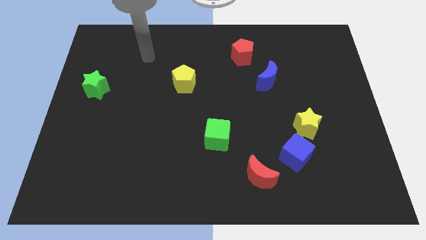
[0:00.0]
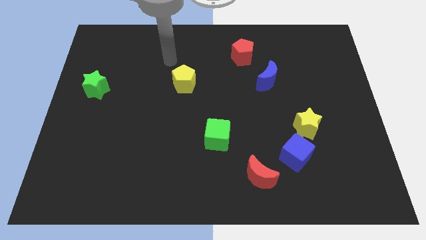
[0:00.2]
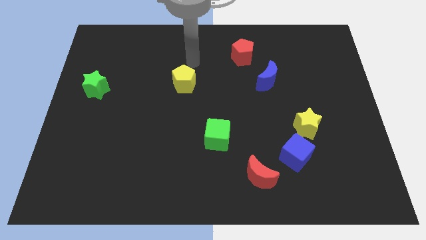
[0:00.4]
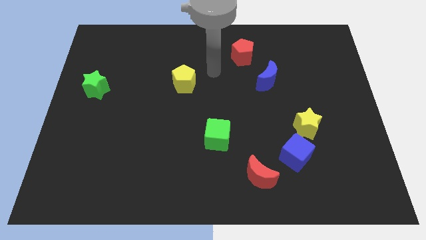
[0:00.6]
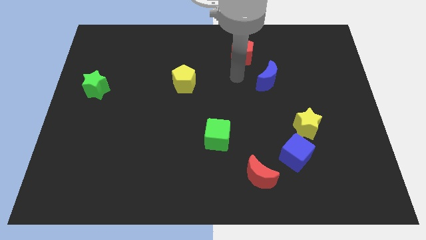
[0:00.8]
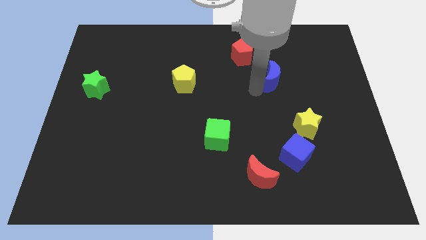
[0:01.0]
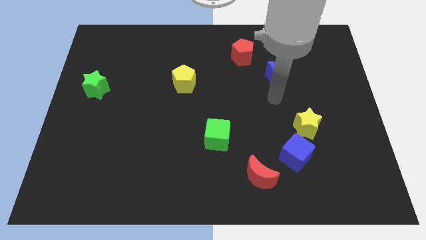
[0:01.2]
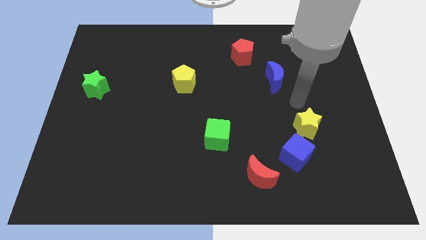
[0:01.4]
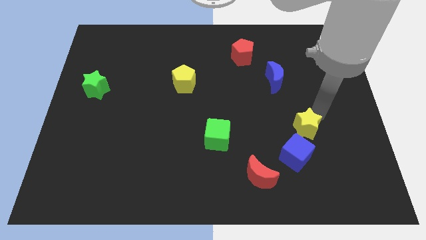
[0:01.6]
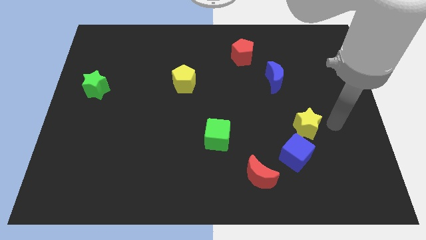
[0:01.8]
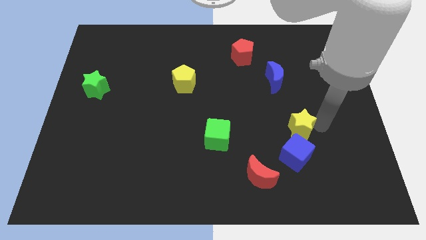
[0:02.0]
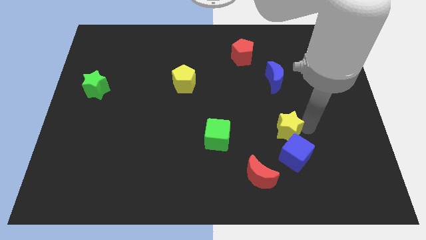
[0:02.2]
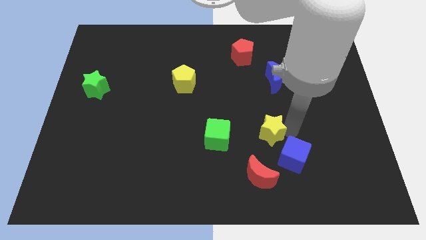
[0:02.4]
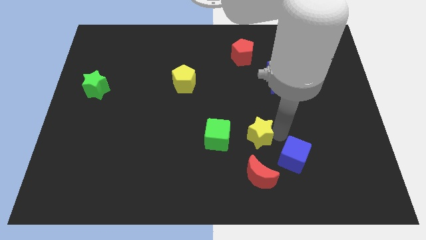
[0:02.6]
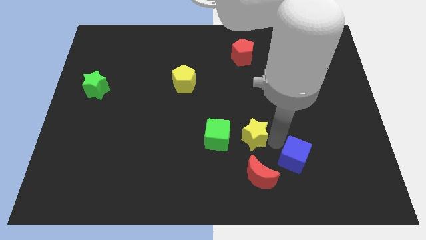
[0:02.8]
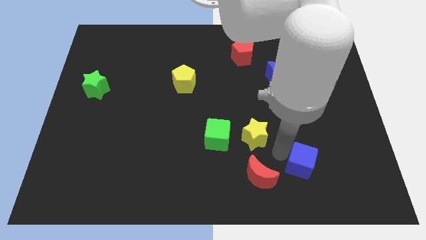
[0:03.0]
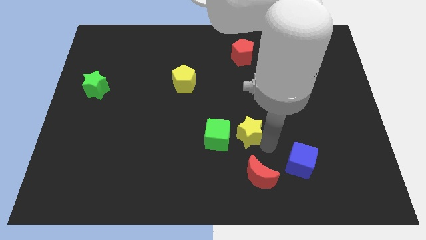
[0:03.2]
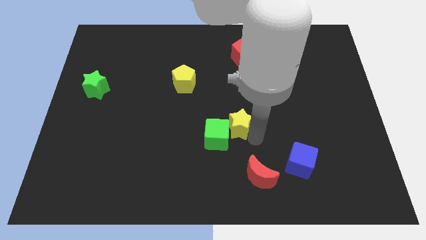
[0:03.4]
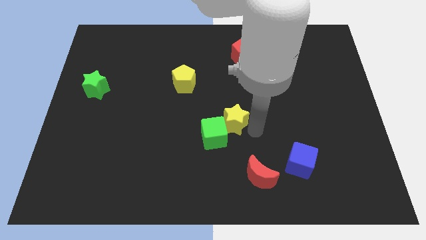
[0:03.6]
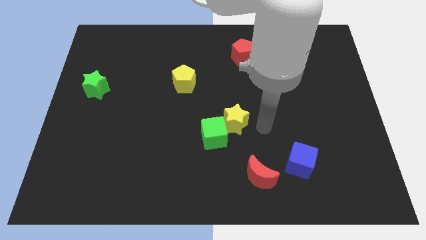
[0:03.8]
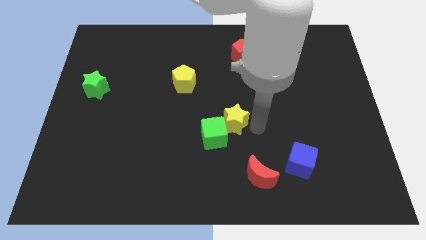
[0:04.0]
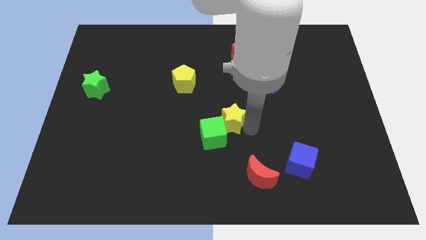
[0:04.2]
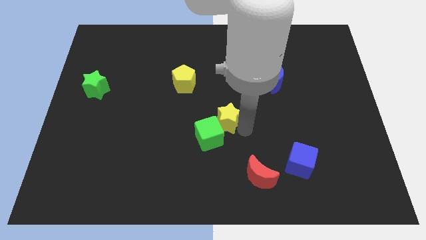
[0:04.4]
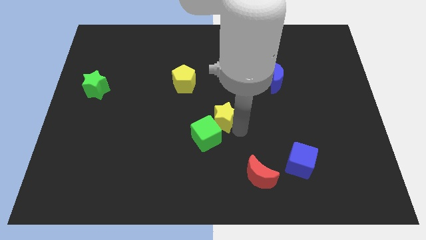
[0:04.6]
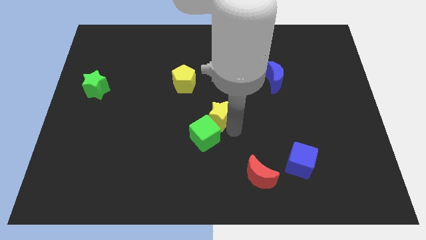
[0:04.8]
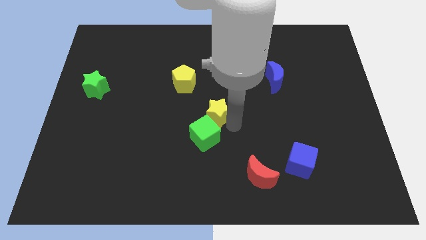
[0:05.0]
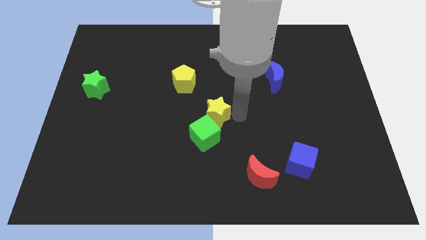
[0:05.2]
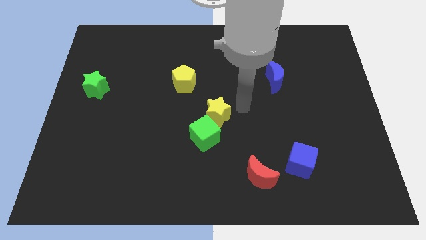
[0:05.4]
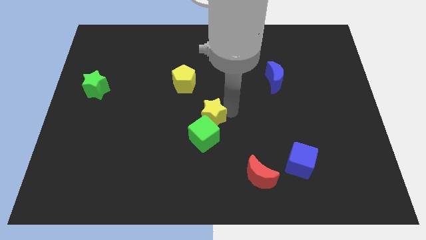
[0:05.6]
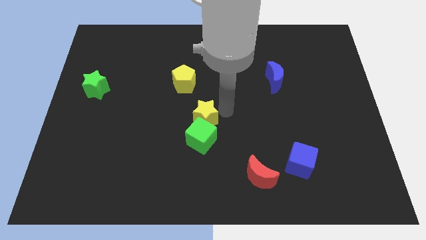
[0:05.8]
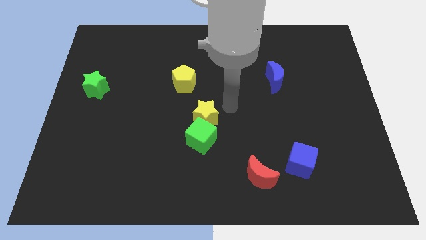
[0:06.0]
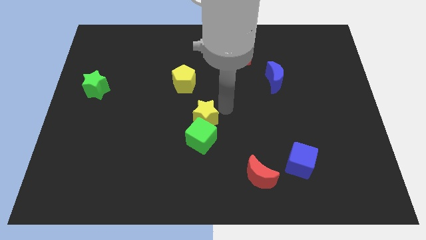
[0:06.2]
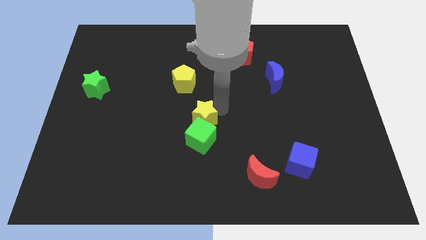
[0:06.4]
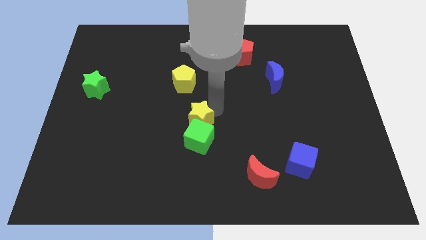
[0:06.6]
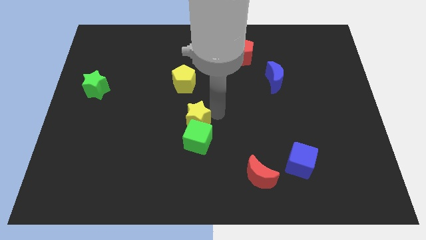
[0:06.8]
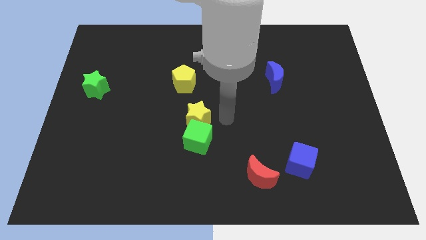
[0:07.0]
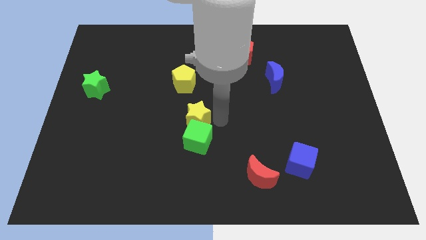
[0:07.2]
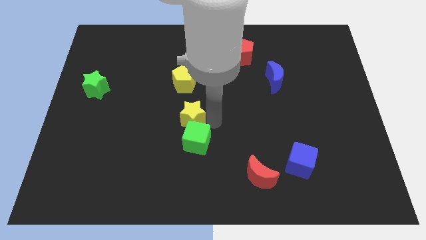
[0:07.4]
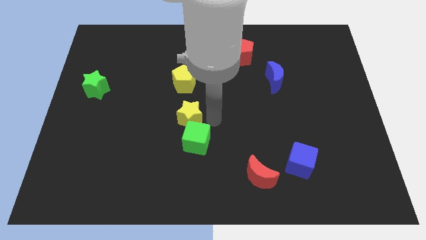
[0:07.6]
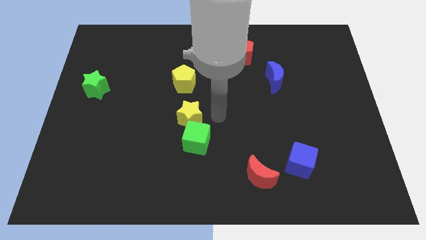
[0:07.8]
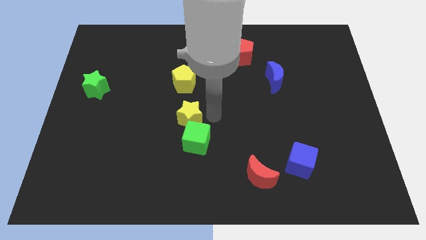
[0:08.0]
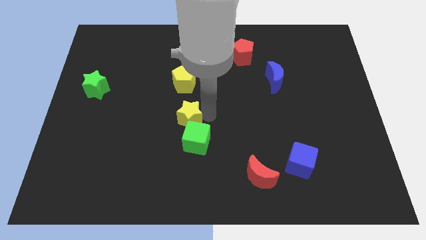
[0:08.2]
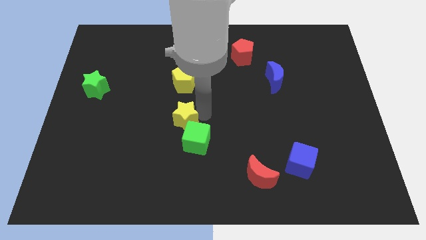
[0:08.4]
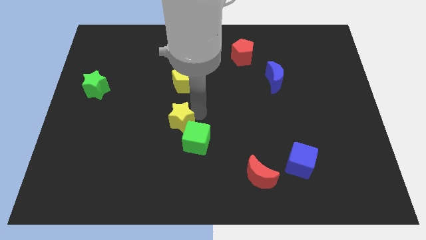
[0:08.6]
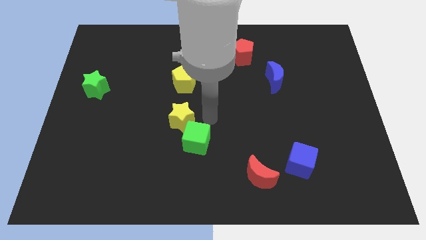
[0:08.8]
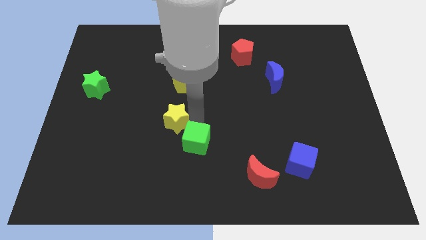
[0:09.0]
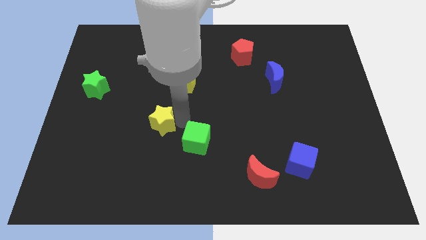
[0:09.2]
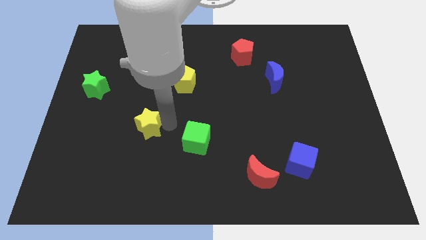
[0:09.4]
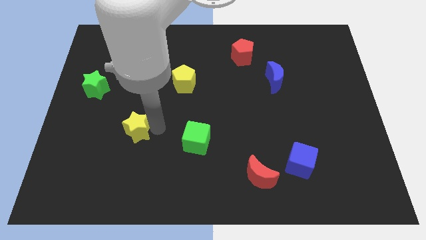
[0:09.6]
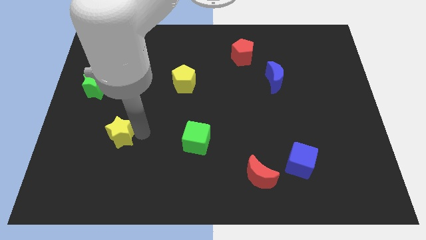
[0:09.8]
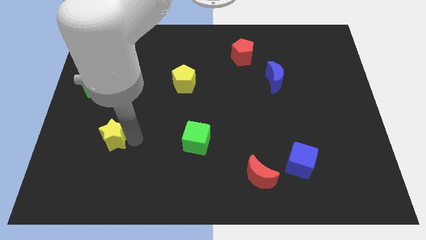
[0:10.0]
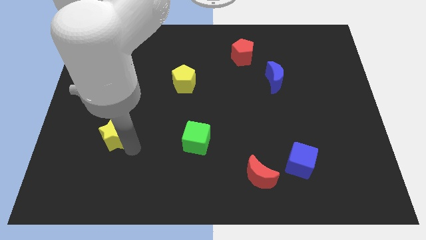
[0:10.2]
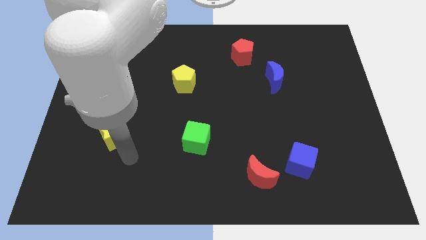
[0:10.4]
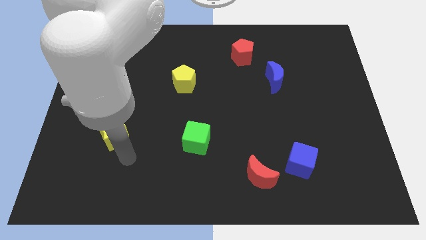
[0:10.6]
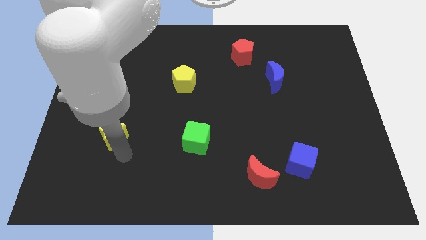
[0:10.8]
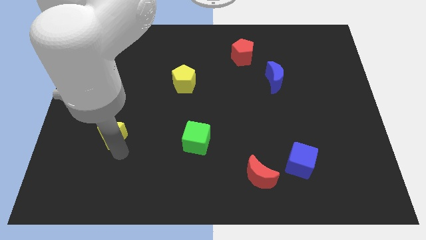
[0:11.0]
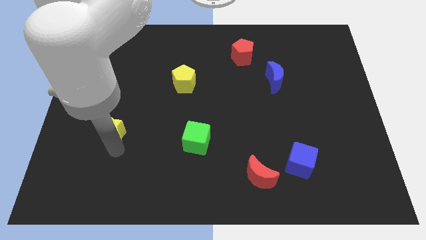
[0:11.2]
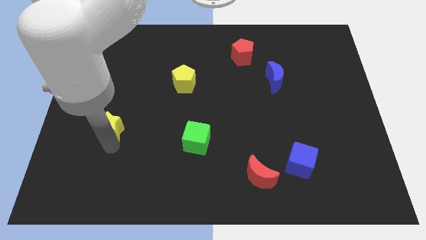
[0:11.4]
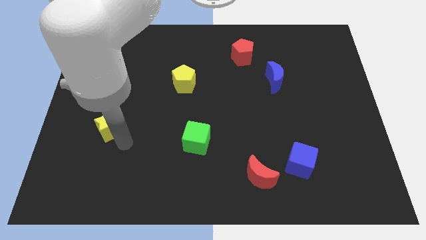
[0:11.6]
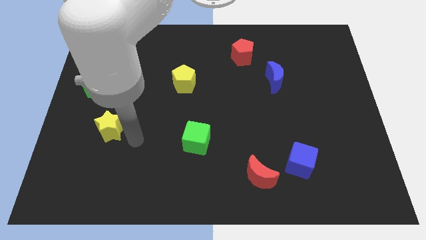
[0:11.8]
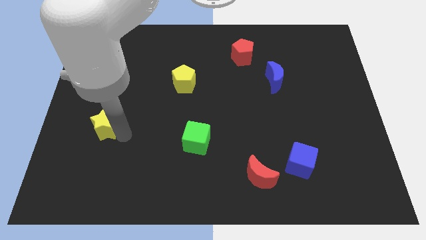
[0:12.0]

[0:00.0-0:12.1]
slide the yellow star below the green star
